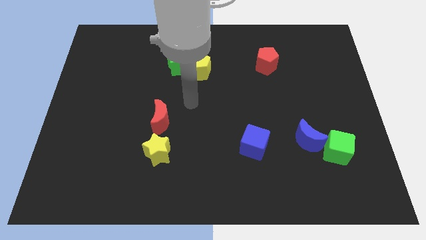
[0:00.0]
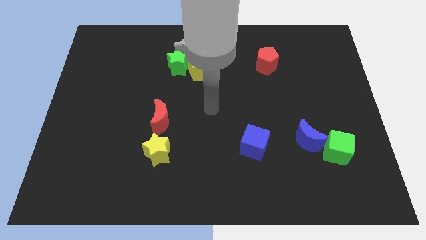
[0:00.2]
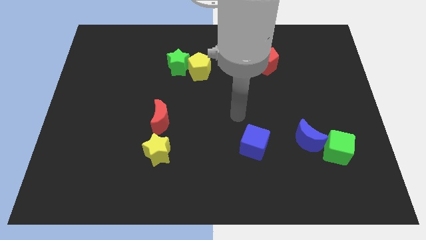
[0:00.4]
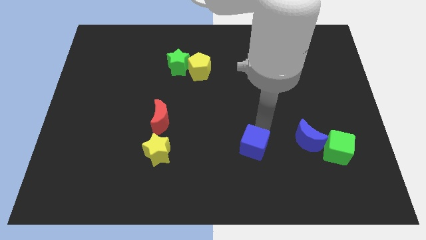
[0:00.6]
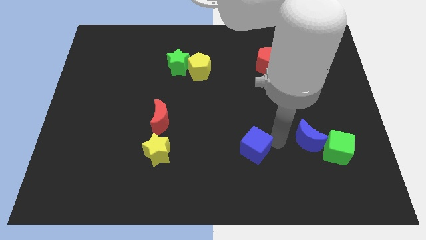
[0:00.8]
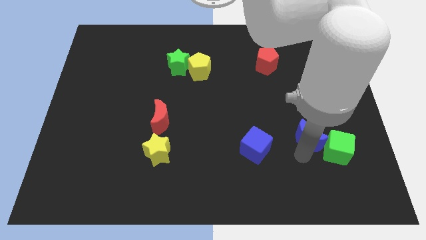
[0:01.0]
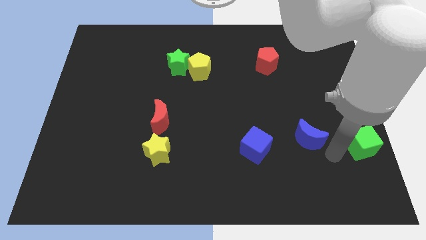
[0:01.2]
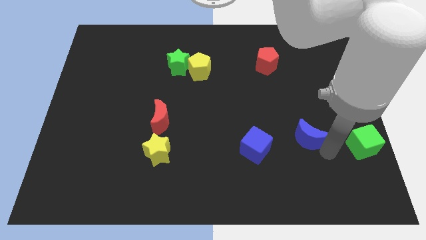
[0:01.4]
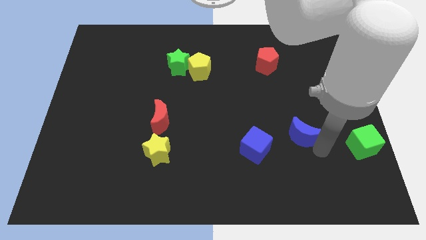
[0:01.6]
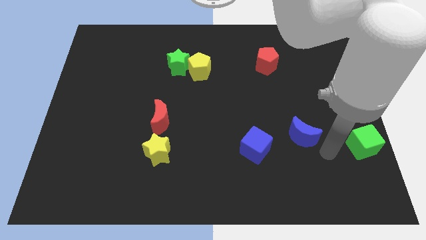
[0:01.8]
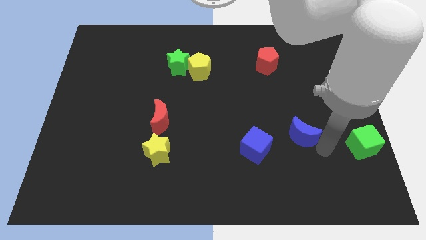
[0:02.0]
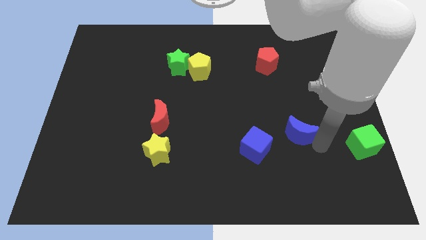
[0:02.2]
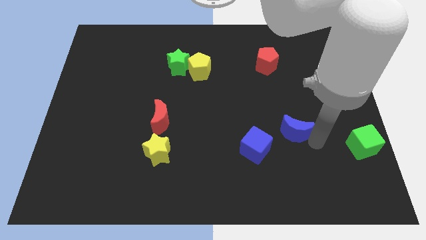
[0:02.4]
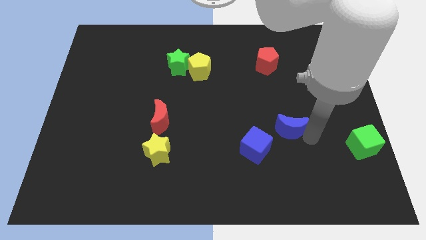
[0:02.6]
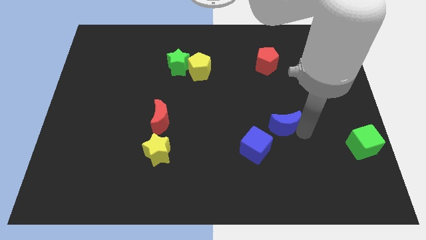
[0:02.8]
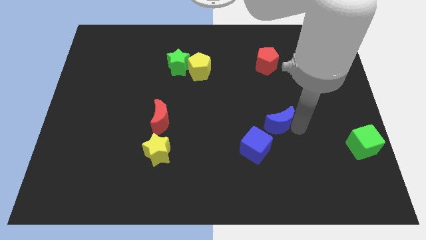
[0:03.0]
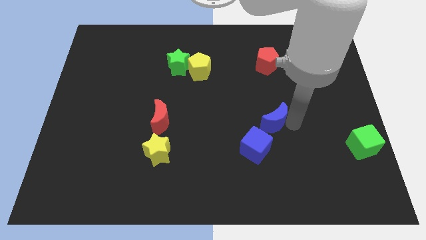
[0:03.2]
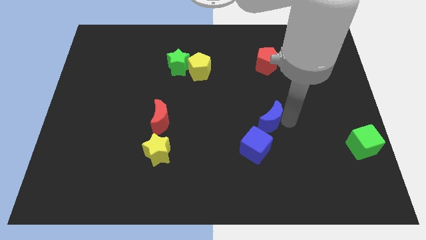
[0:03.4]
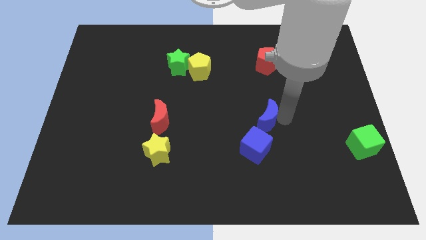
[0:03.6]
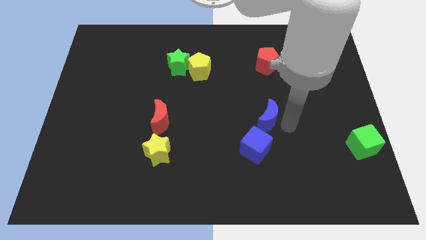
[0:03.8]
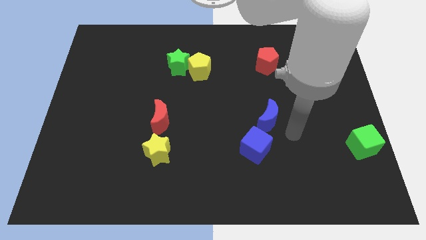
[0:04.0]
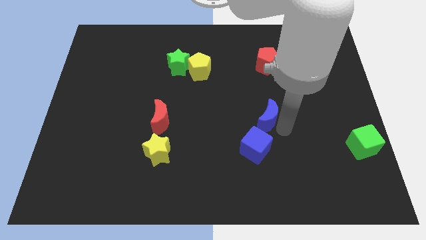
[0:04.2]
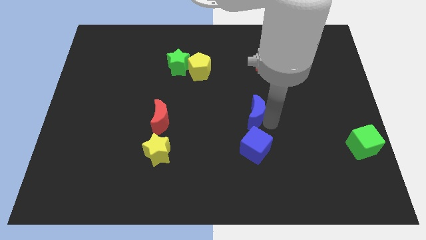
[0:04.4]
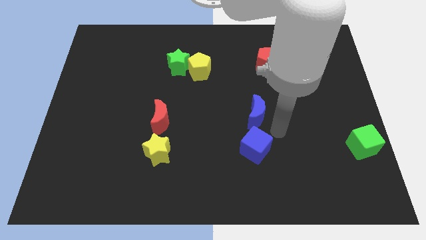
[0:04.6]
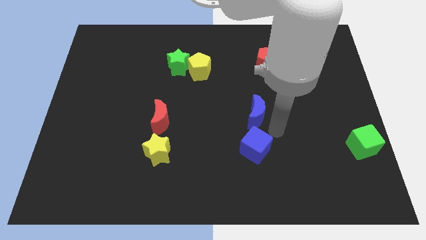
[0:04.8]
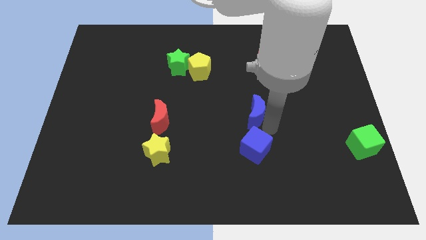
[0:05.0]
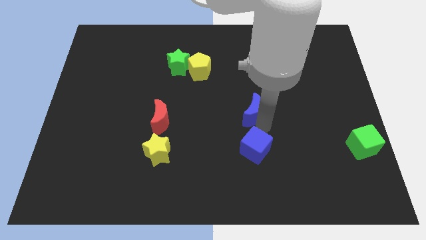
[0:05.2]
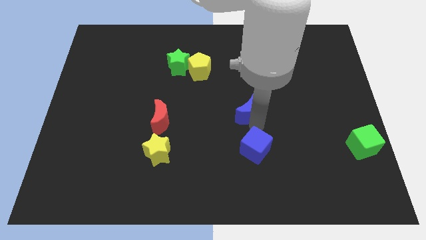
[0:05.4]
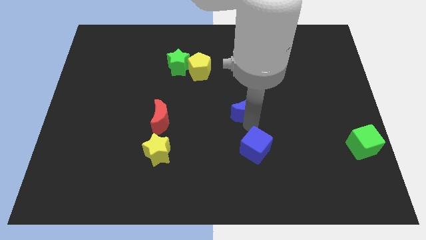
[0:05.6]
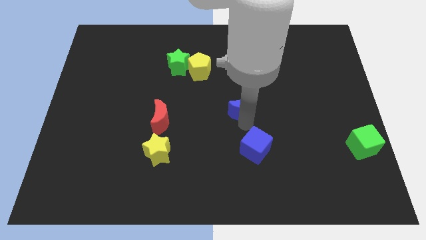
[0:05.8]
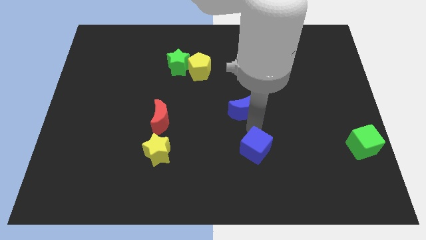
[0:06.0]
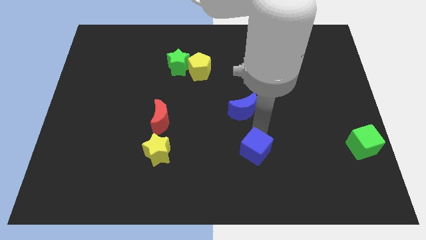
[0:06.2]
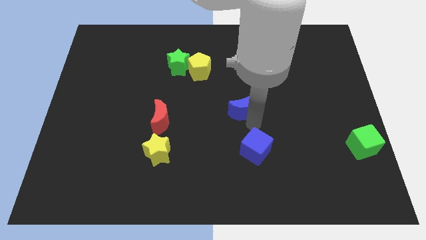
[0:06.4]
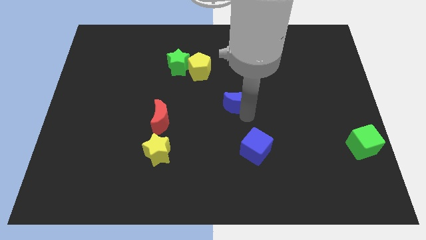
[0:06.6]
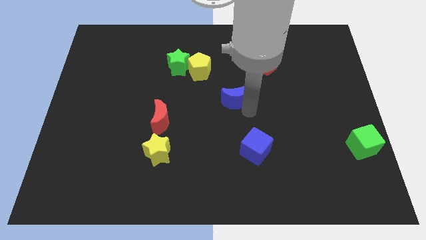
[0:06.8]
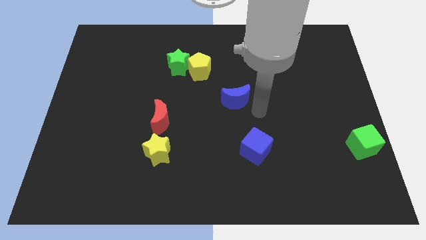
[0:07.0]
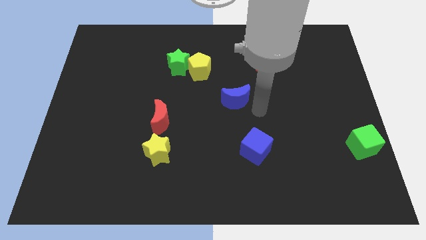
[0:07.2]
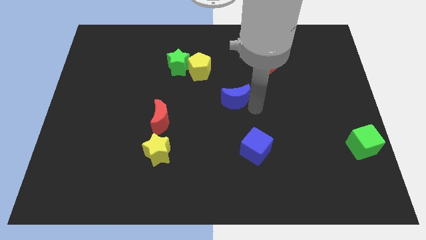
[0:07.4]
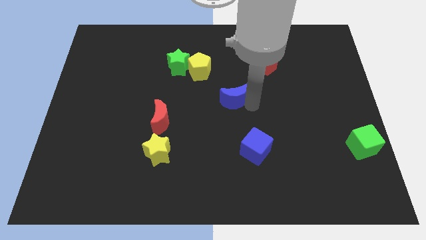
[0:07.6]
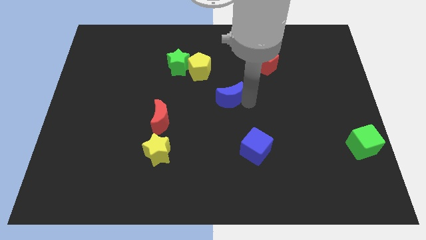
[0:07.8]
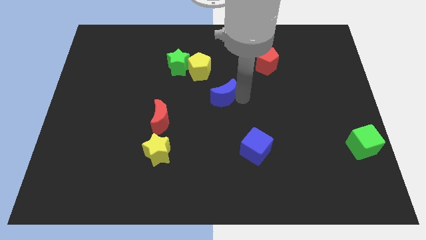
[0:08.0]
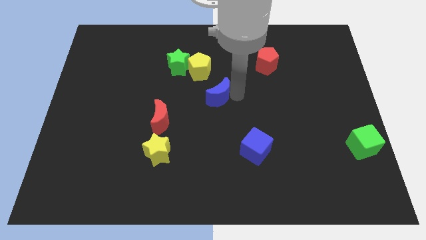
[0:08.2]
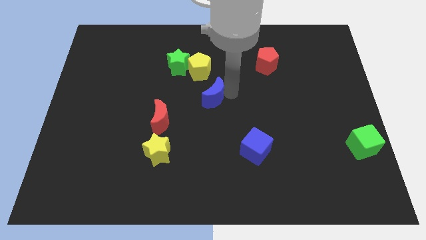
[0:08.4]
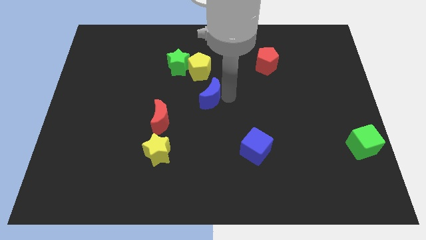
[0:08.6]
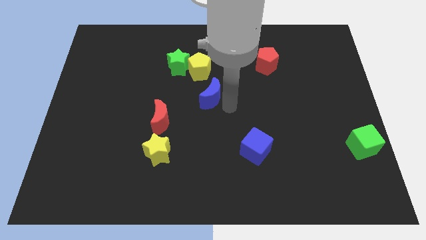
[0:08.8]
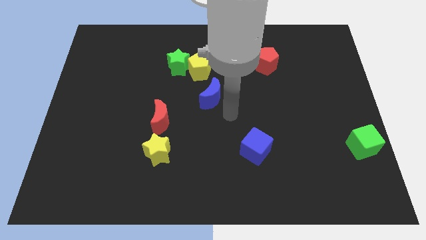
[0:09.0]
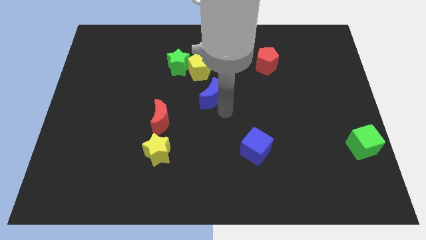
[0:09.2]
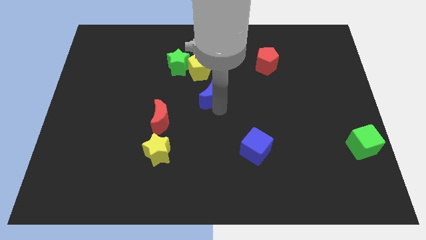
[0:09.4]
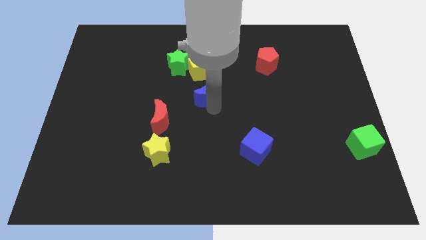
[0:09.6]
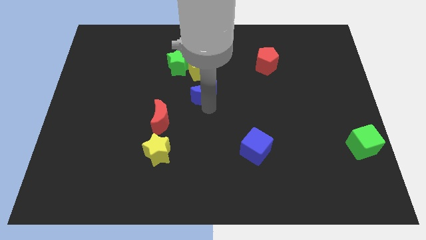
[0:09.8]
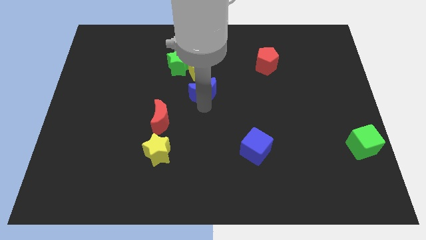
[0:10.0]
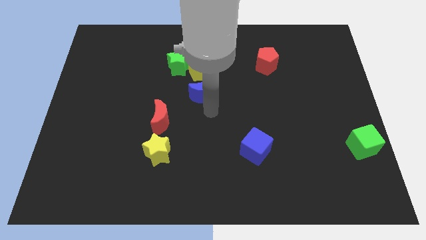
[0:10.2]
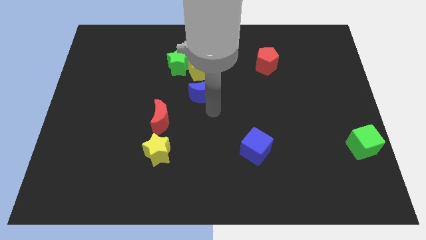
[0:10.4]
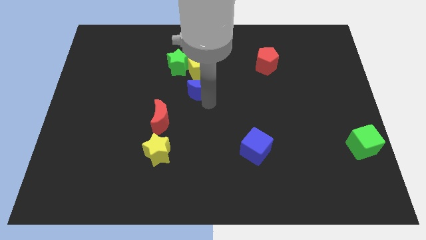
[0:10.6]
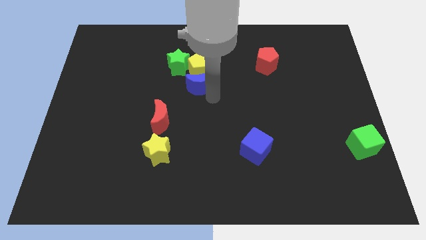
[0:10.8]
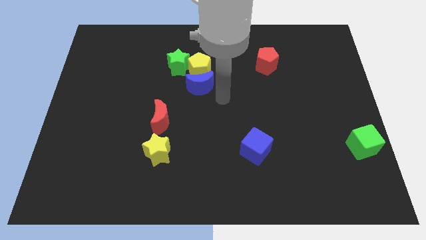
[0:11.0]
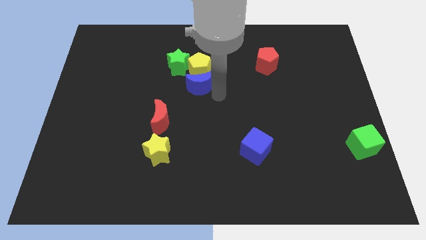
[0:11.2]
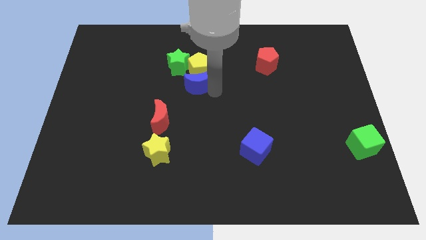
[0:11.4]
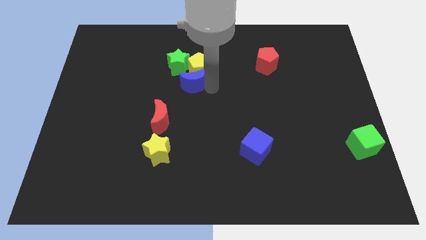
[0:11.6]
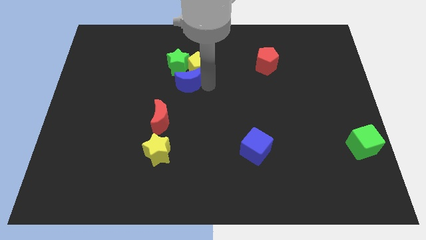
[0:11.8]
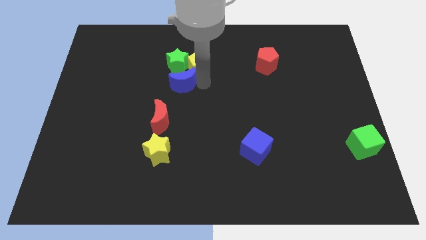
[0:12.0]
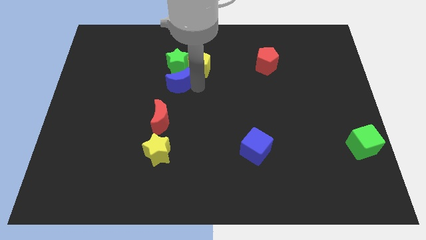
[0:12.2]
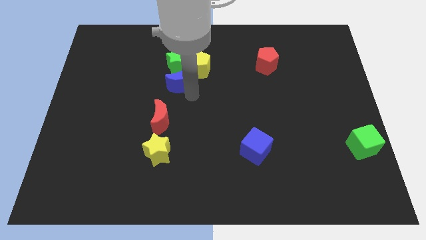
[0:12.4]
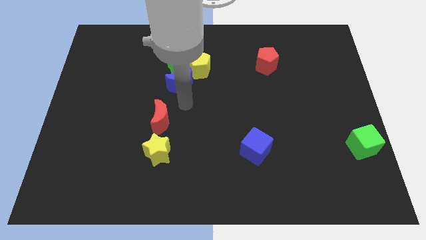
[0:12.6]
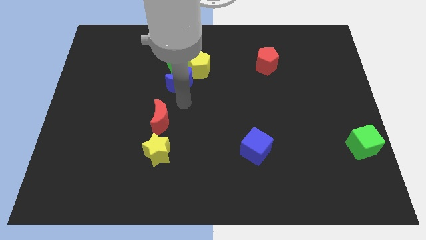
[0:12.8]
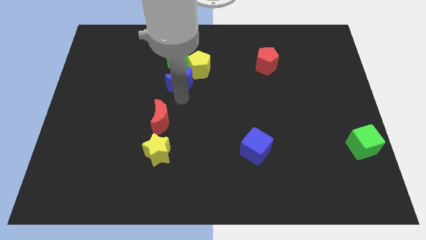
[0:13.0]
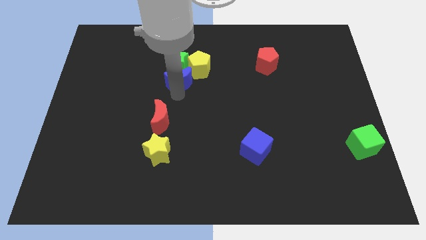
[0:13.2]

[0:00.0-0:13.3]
slide the blue moon towards the green star

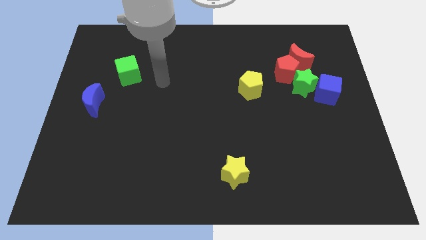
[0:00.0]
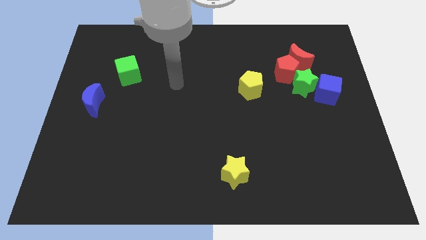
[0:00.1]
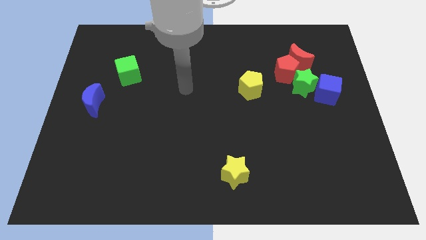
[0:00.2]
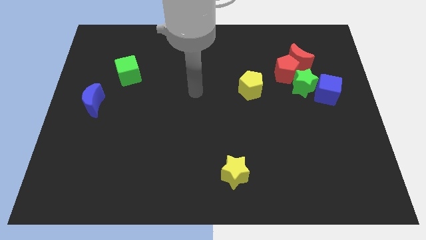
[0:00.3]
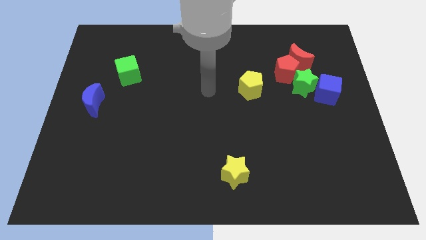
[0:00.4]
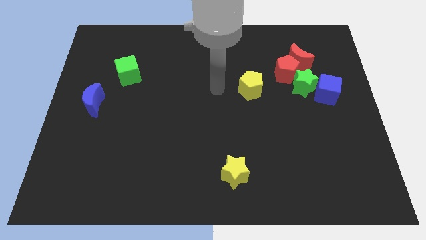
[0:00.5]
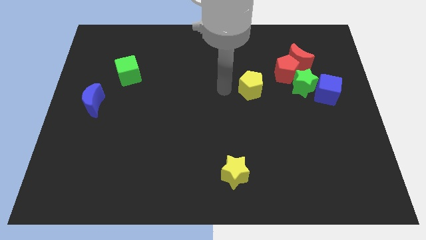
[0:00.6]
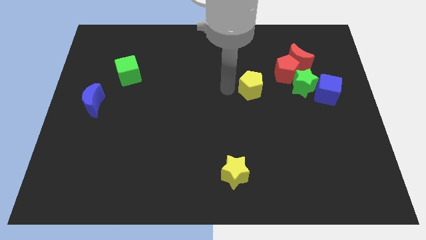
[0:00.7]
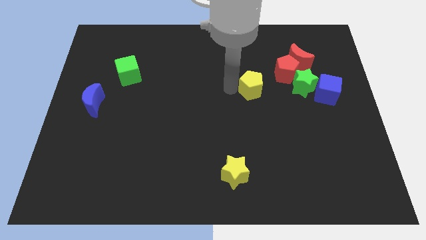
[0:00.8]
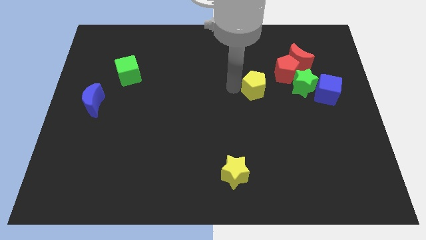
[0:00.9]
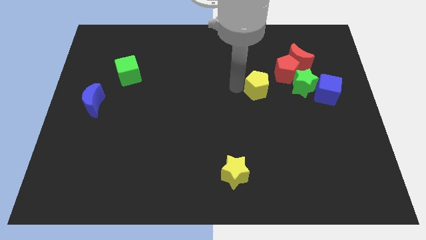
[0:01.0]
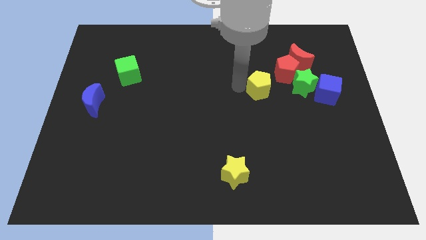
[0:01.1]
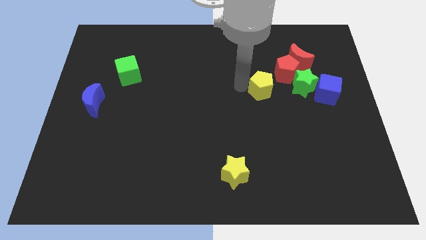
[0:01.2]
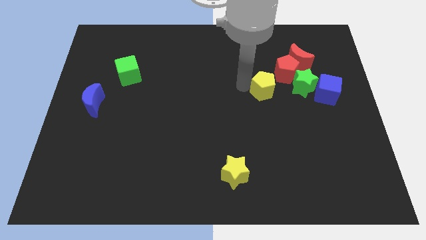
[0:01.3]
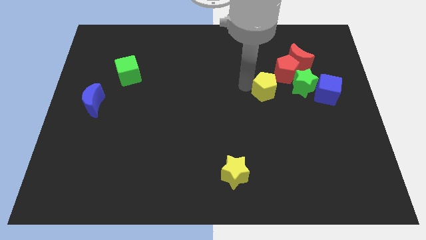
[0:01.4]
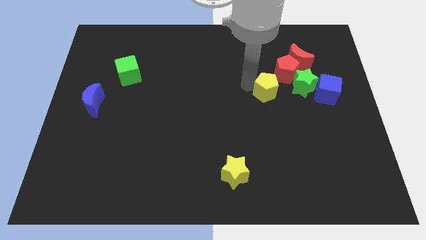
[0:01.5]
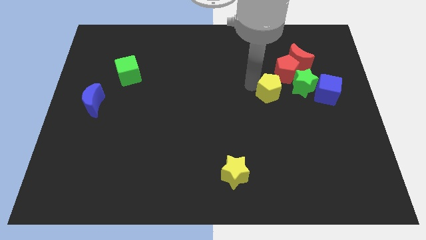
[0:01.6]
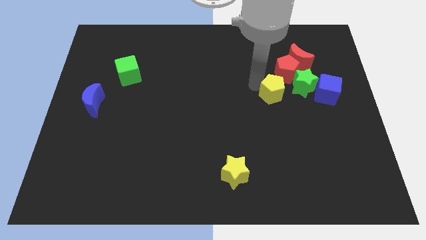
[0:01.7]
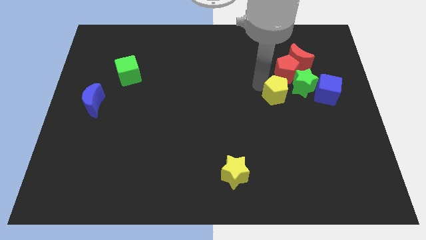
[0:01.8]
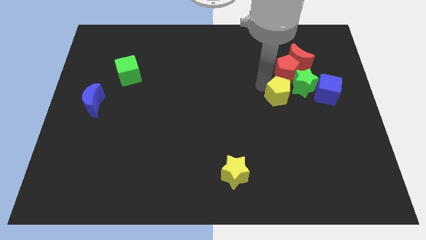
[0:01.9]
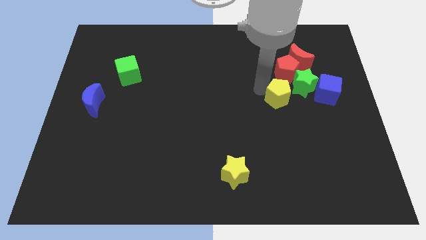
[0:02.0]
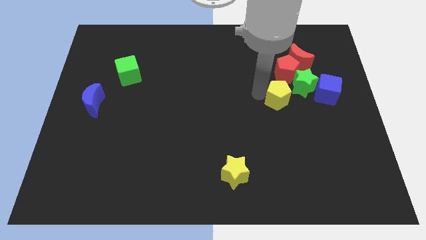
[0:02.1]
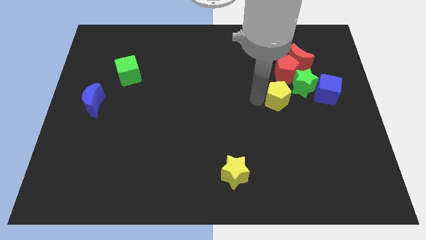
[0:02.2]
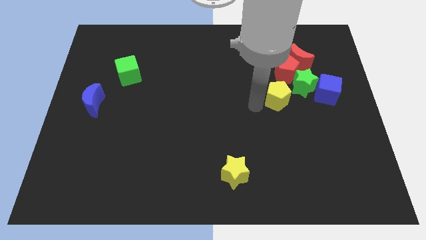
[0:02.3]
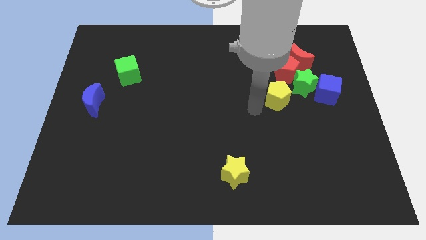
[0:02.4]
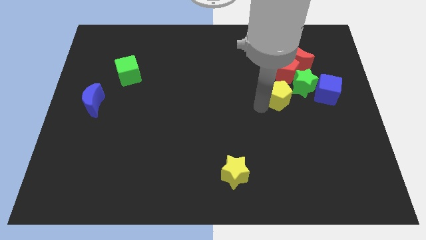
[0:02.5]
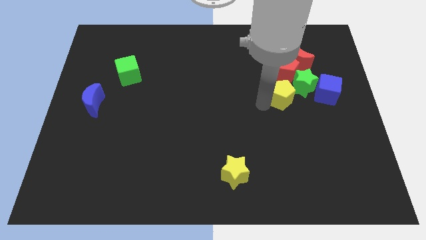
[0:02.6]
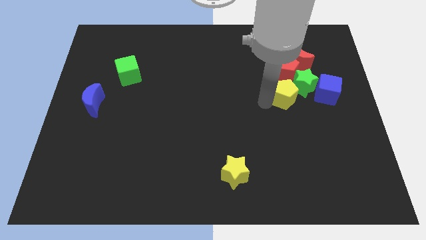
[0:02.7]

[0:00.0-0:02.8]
put the yellow pentagon close to the green star
